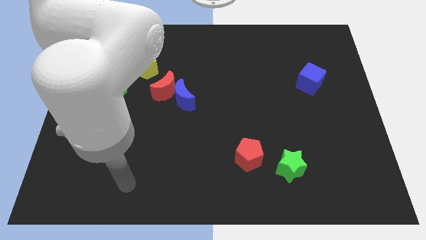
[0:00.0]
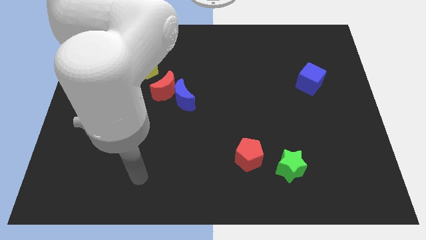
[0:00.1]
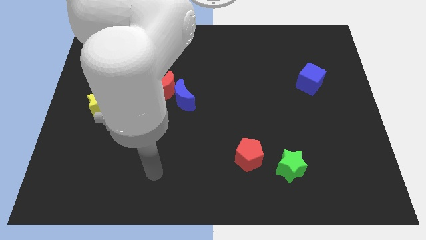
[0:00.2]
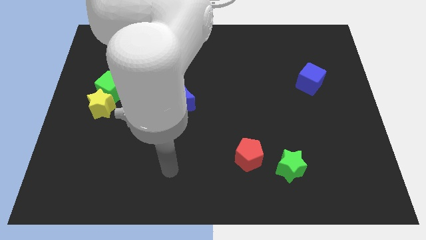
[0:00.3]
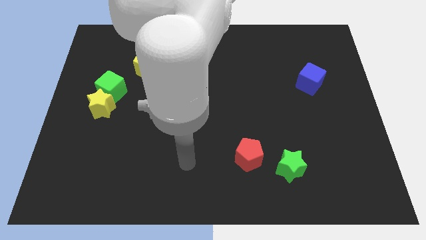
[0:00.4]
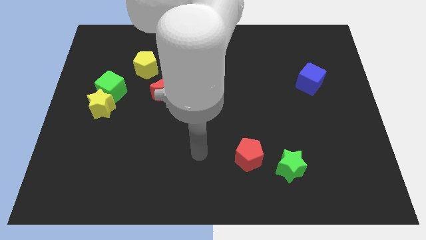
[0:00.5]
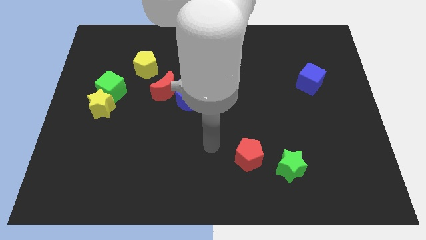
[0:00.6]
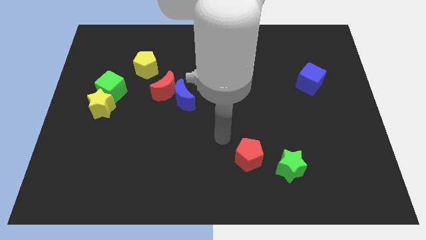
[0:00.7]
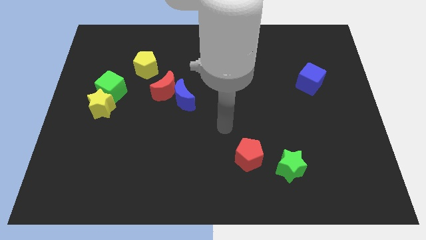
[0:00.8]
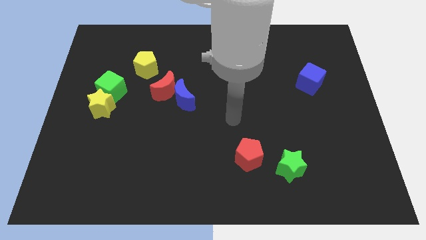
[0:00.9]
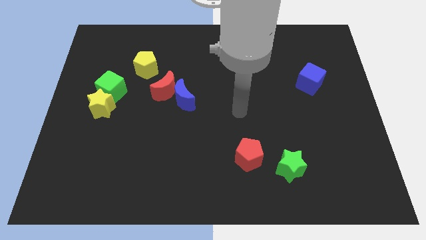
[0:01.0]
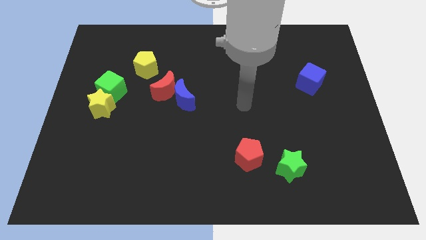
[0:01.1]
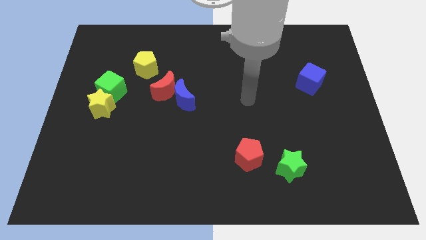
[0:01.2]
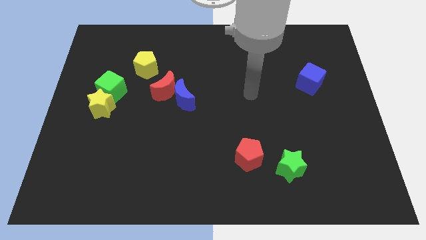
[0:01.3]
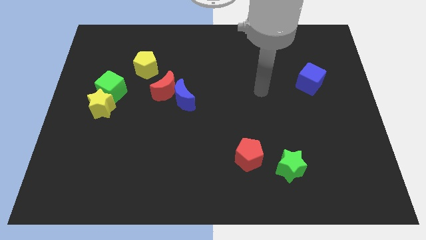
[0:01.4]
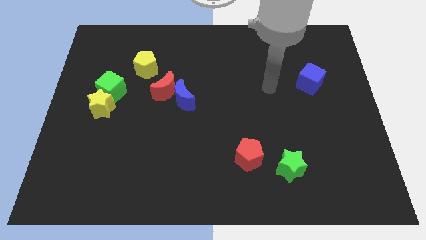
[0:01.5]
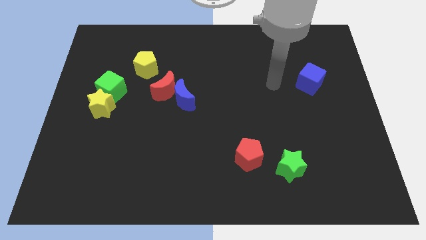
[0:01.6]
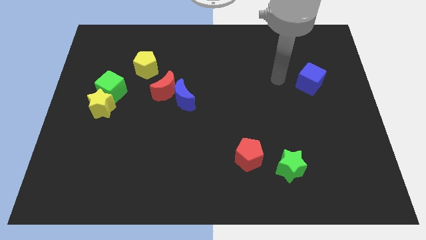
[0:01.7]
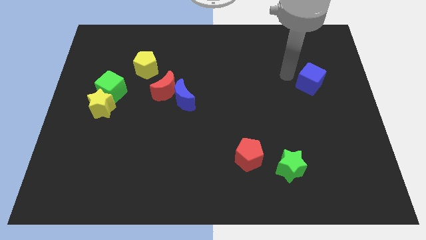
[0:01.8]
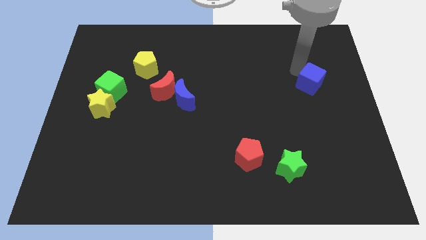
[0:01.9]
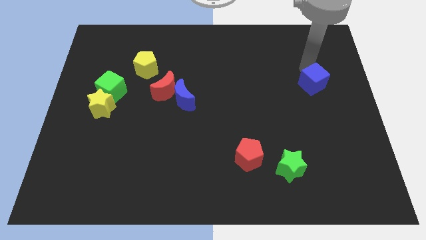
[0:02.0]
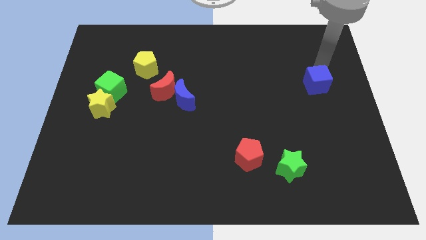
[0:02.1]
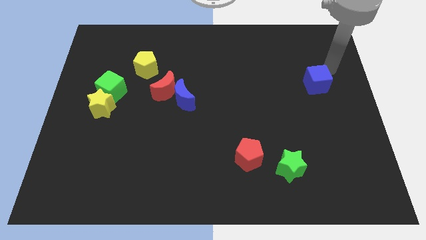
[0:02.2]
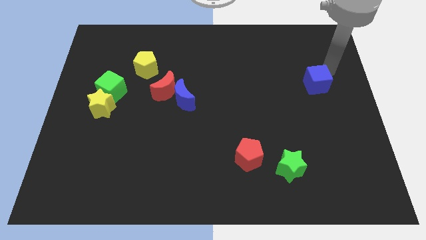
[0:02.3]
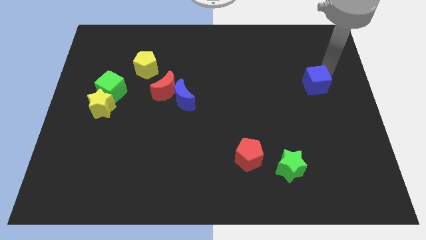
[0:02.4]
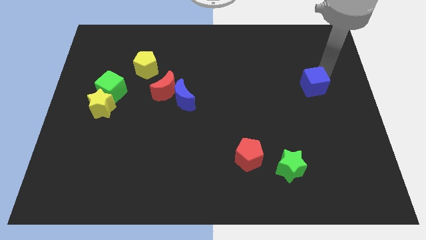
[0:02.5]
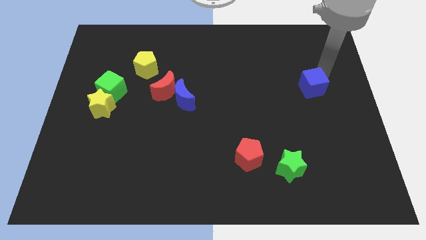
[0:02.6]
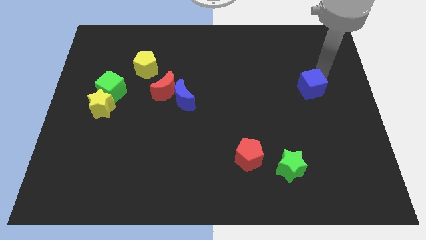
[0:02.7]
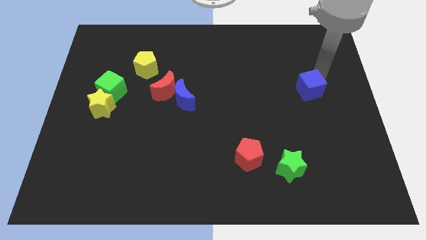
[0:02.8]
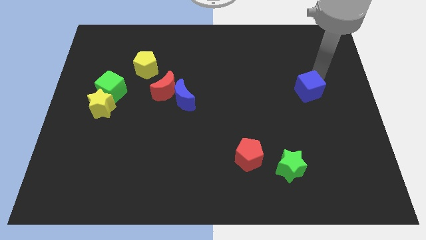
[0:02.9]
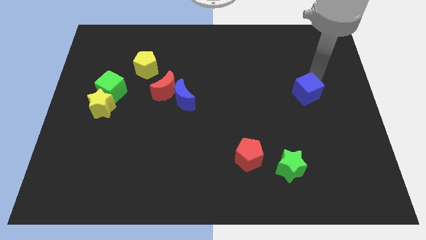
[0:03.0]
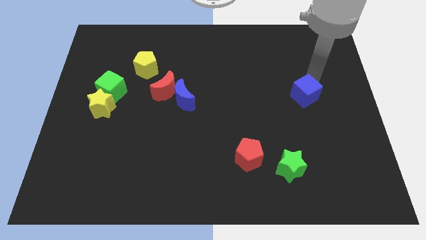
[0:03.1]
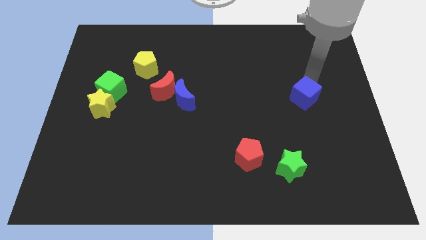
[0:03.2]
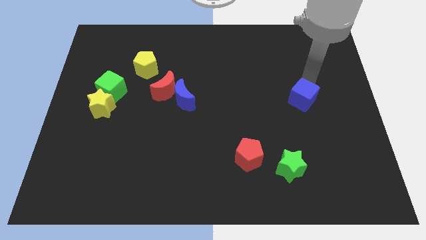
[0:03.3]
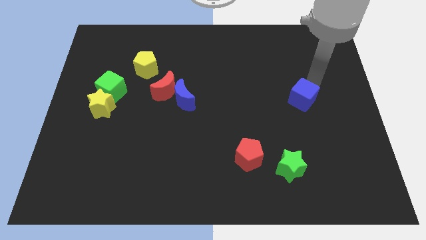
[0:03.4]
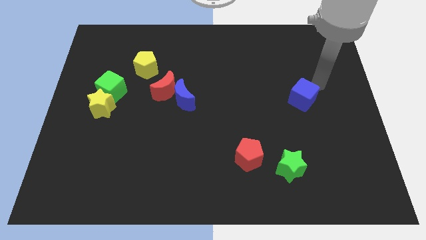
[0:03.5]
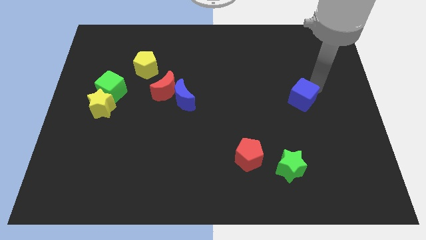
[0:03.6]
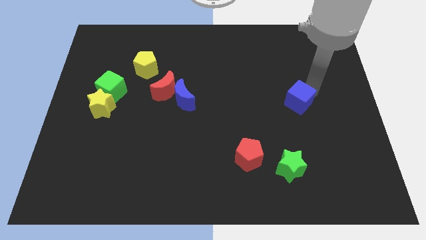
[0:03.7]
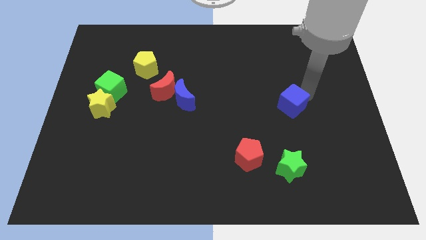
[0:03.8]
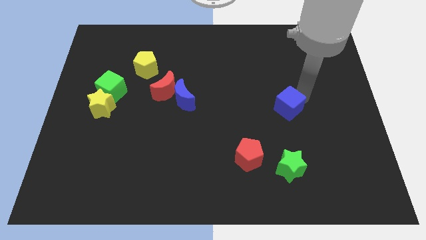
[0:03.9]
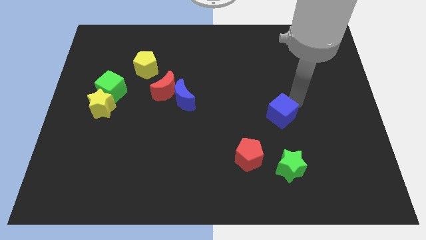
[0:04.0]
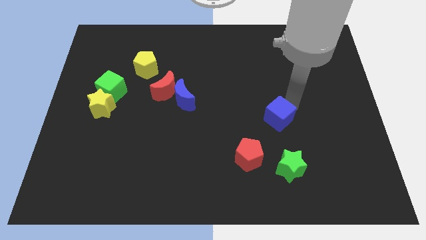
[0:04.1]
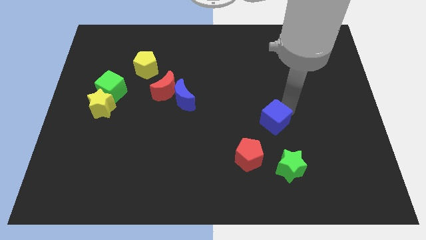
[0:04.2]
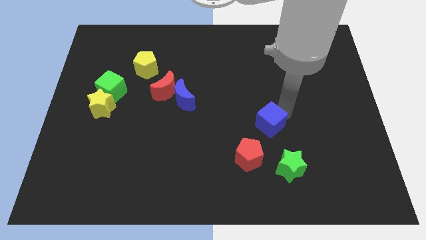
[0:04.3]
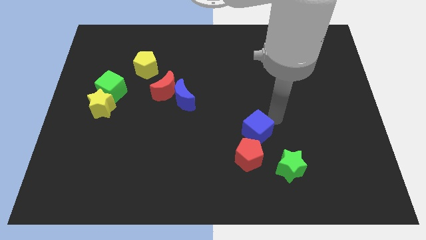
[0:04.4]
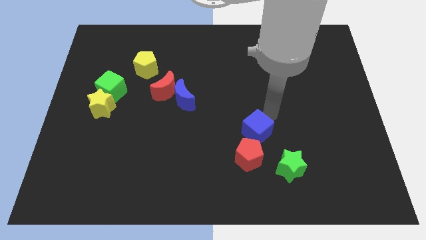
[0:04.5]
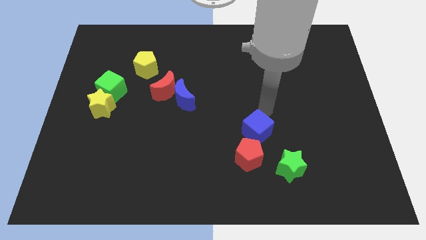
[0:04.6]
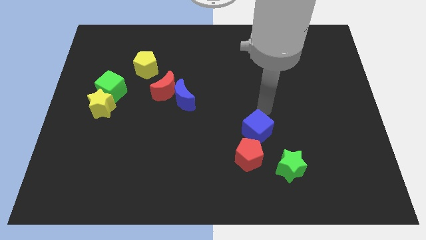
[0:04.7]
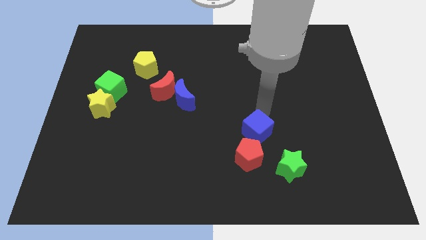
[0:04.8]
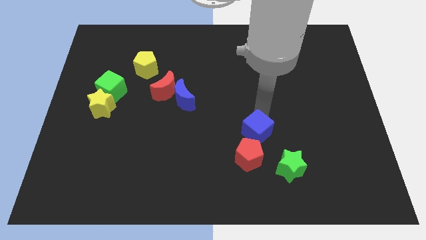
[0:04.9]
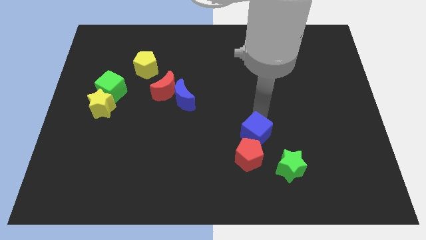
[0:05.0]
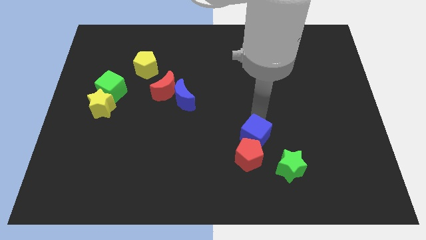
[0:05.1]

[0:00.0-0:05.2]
push the blue cube close to the red pentagon

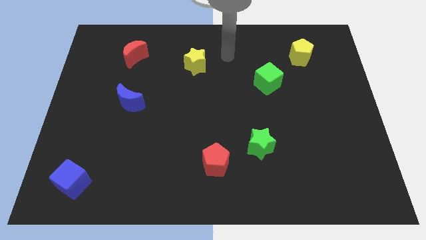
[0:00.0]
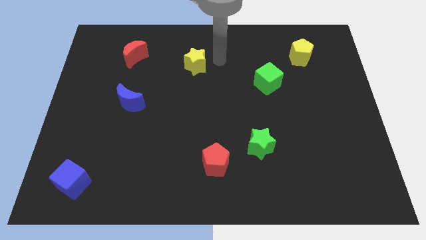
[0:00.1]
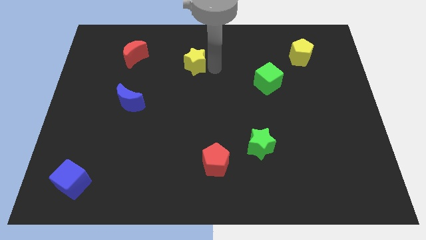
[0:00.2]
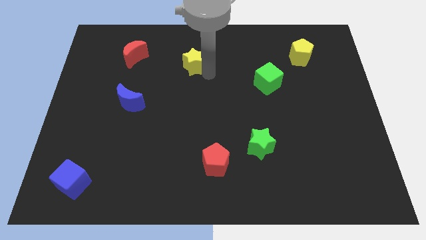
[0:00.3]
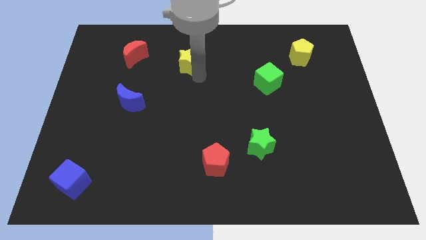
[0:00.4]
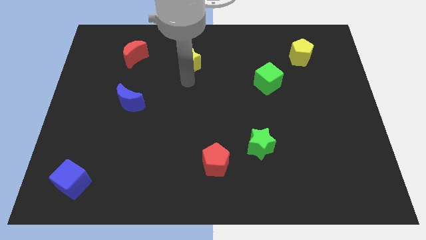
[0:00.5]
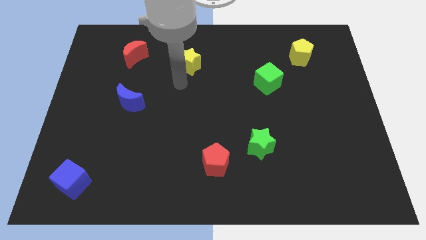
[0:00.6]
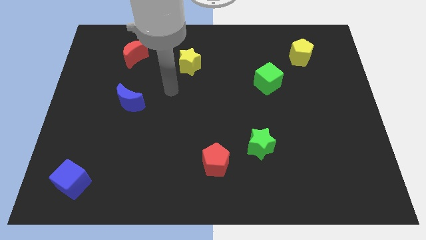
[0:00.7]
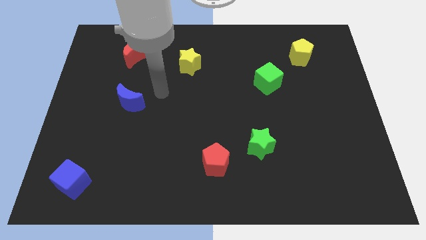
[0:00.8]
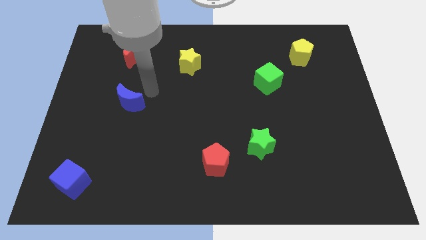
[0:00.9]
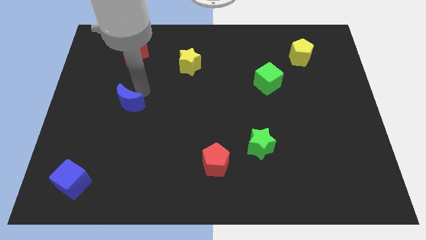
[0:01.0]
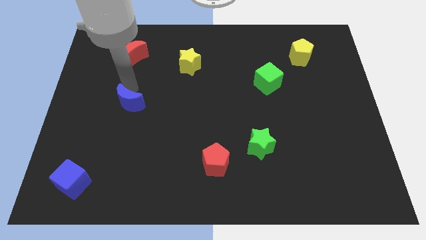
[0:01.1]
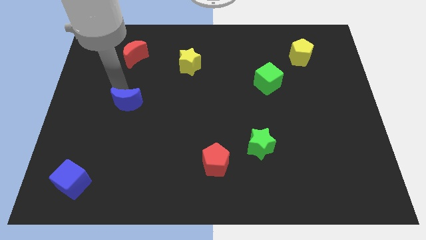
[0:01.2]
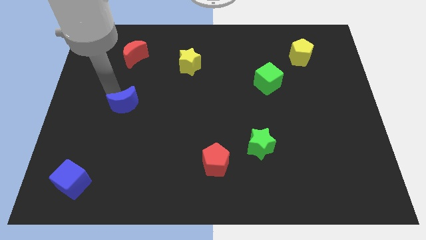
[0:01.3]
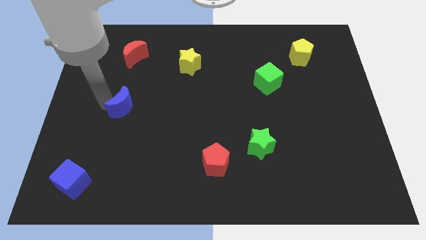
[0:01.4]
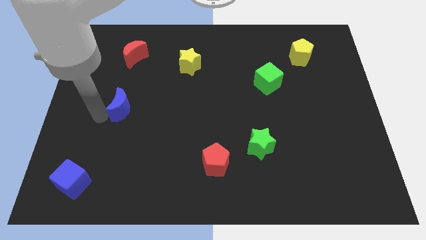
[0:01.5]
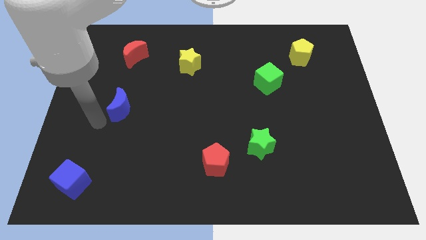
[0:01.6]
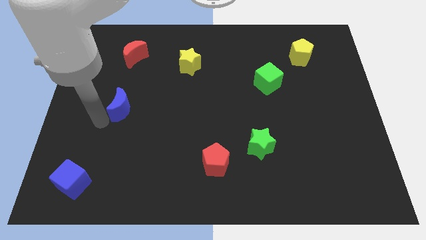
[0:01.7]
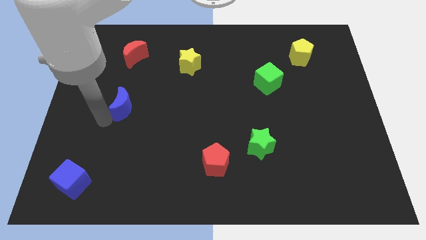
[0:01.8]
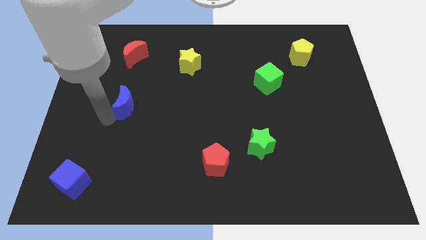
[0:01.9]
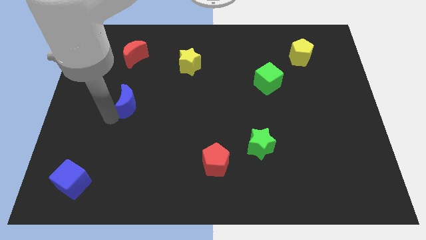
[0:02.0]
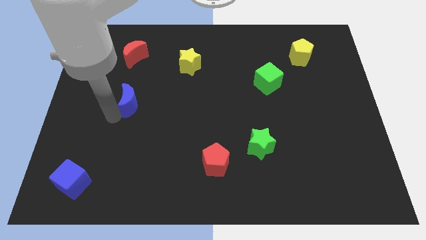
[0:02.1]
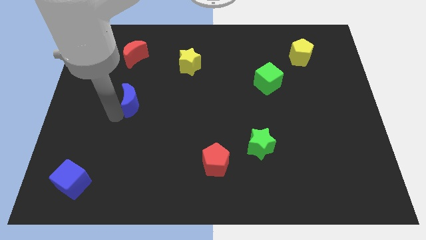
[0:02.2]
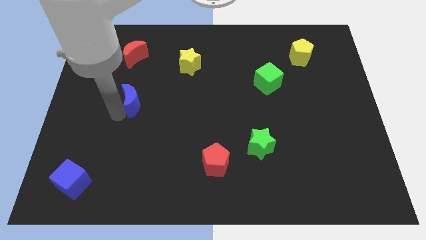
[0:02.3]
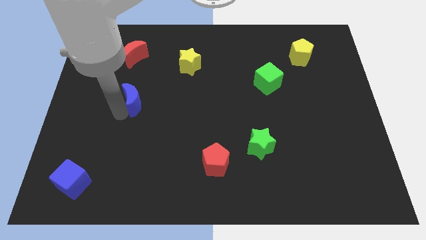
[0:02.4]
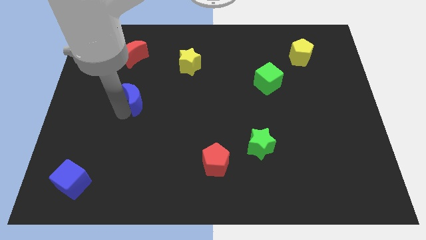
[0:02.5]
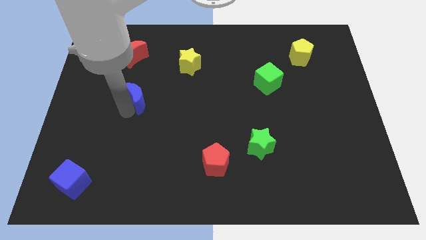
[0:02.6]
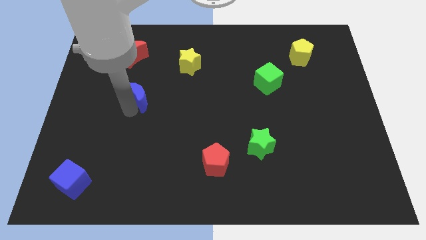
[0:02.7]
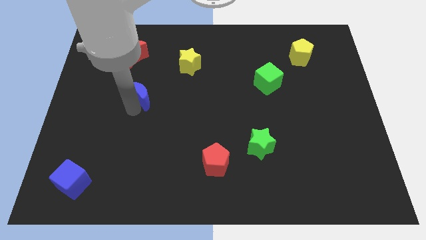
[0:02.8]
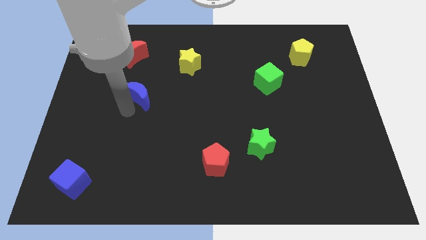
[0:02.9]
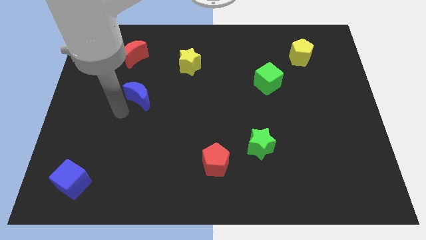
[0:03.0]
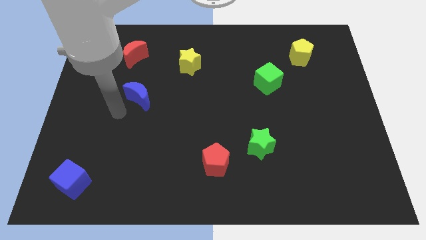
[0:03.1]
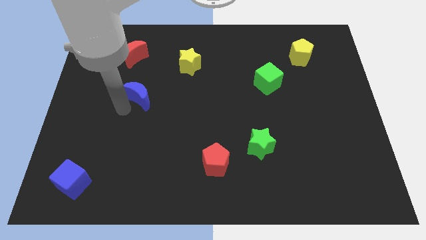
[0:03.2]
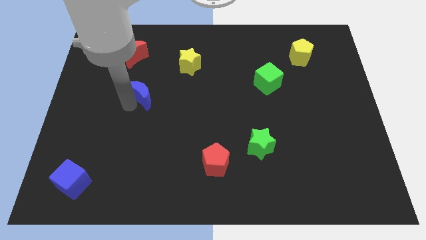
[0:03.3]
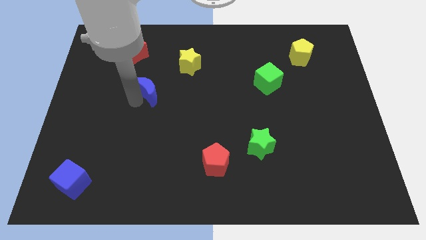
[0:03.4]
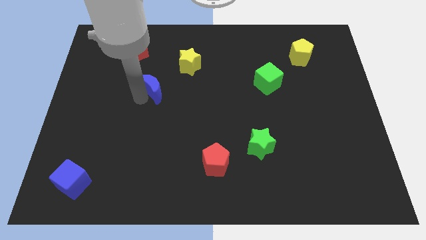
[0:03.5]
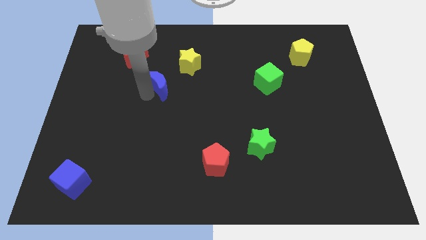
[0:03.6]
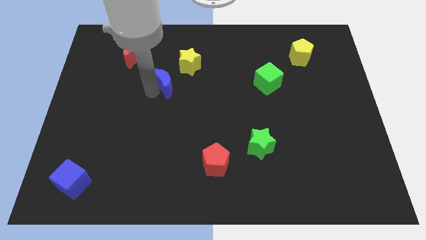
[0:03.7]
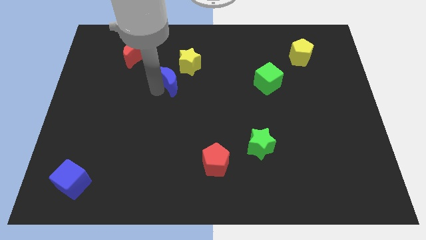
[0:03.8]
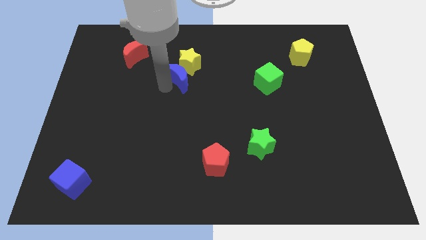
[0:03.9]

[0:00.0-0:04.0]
put the blue moon next to the yellow star
